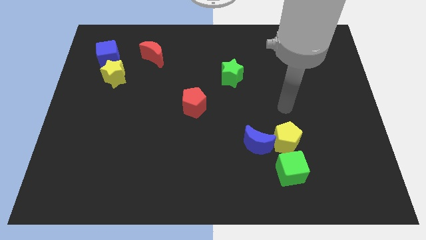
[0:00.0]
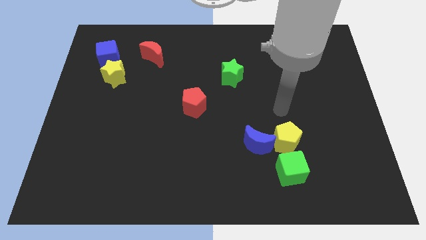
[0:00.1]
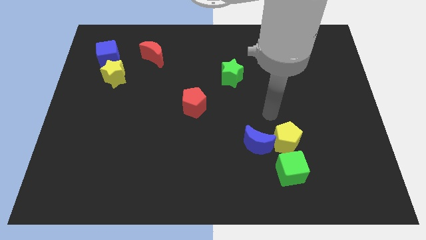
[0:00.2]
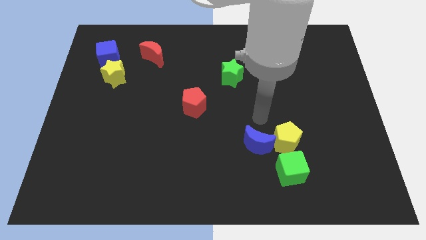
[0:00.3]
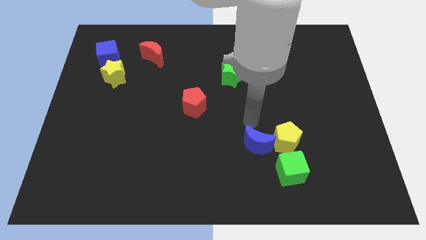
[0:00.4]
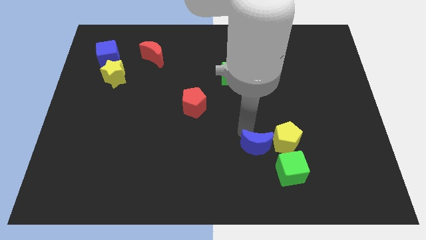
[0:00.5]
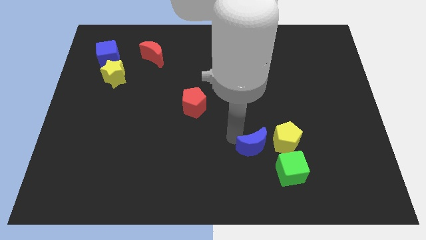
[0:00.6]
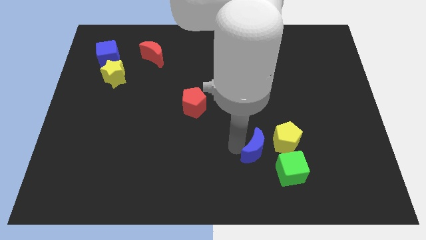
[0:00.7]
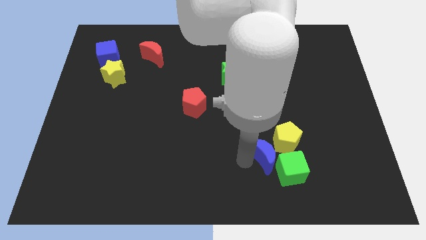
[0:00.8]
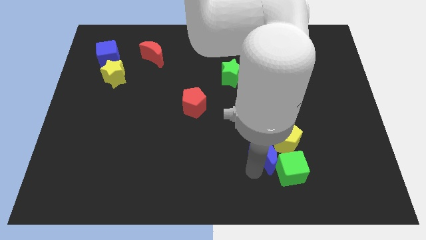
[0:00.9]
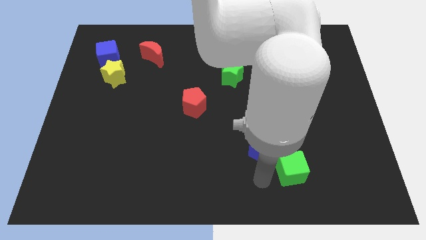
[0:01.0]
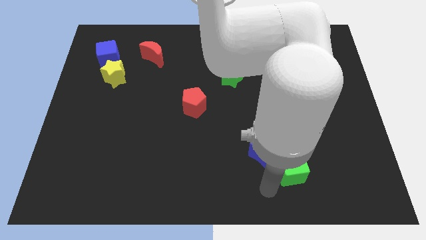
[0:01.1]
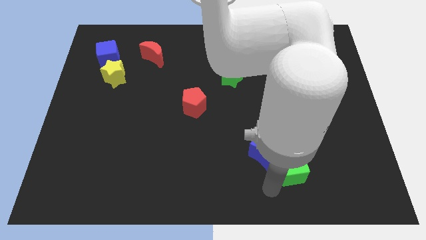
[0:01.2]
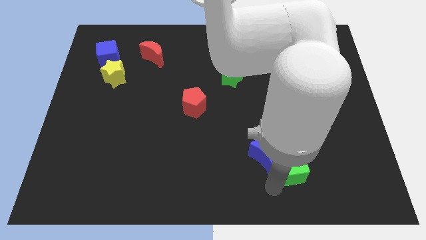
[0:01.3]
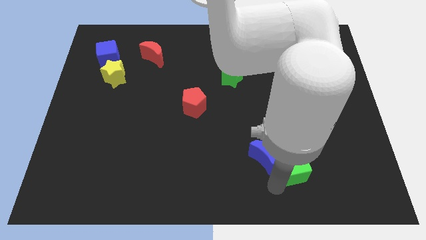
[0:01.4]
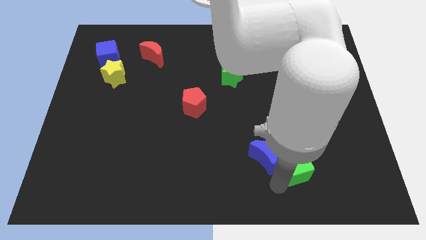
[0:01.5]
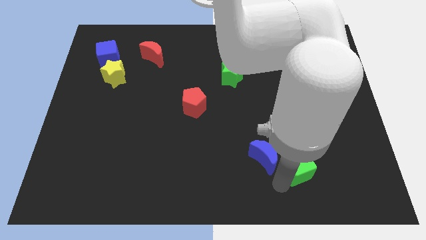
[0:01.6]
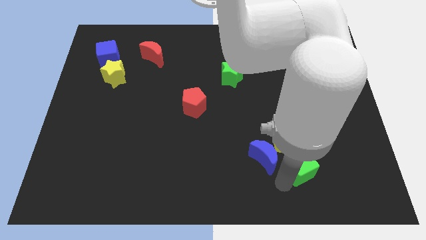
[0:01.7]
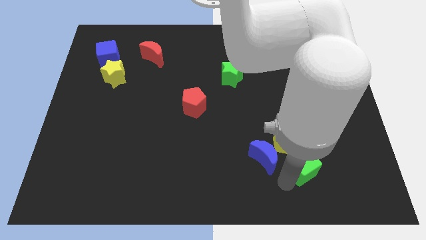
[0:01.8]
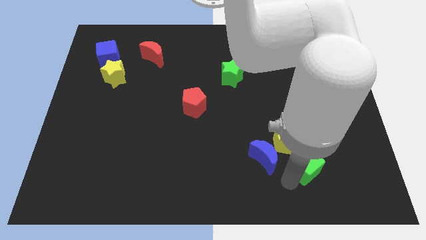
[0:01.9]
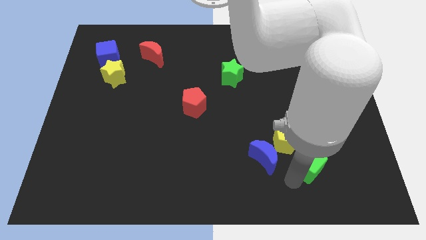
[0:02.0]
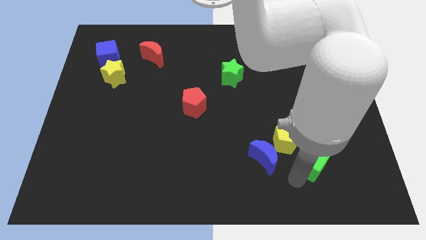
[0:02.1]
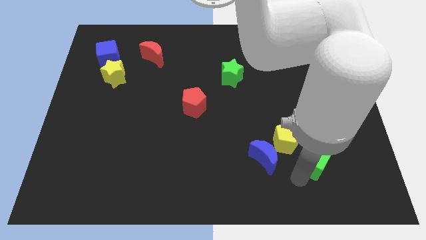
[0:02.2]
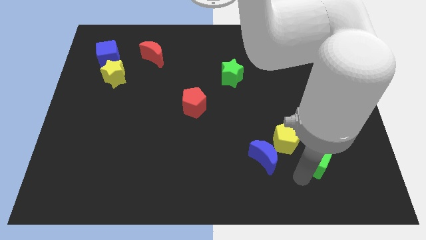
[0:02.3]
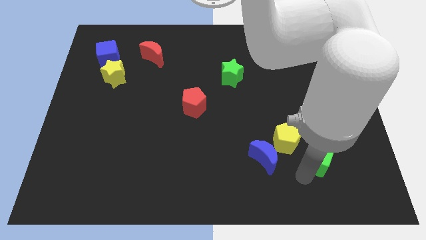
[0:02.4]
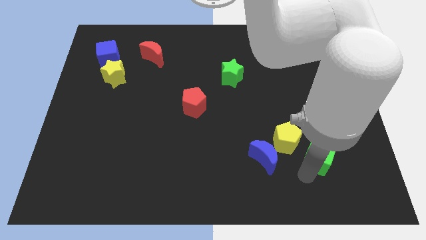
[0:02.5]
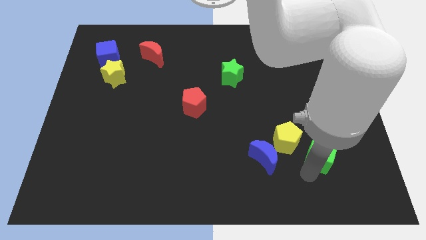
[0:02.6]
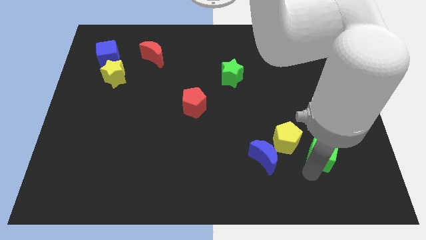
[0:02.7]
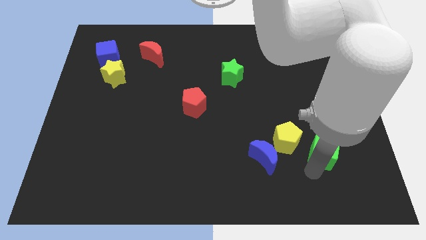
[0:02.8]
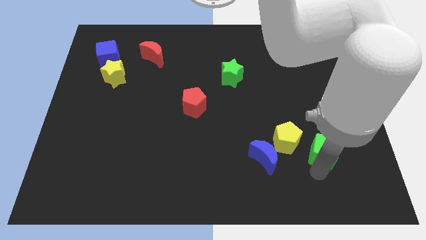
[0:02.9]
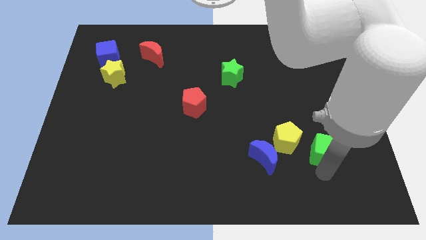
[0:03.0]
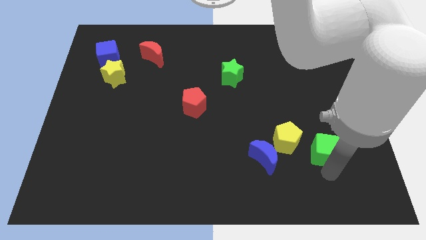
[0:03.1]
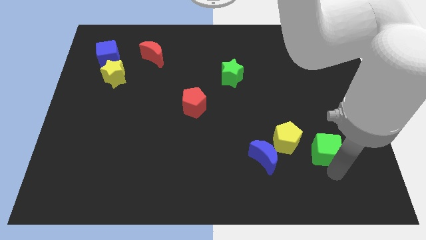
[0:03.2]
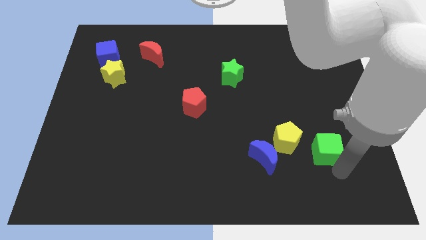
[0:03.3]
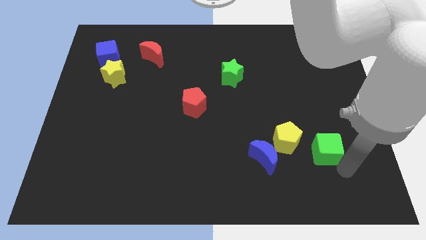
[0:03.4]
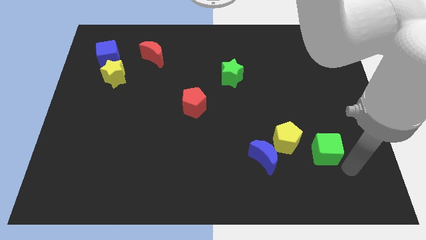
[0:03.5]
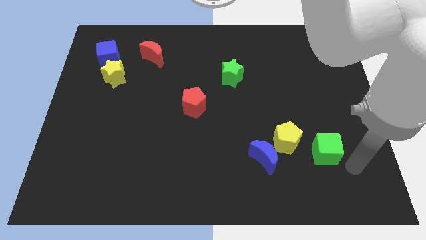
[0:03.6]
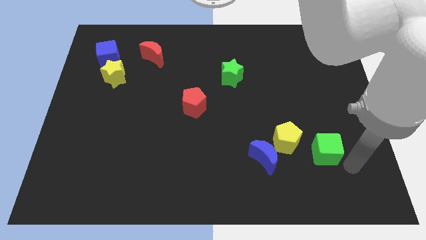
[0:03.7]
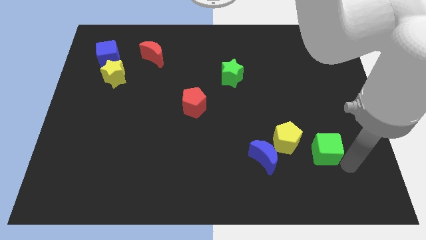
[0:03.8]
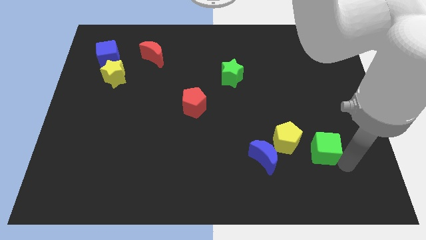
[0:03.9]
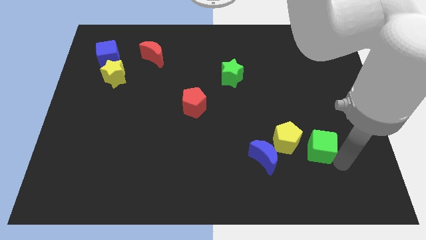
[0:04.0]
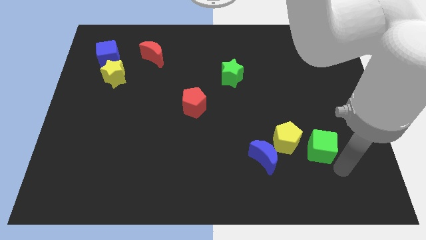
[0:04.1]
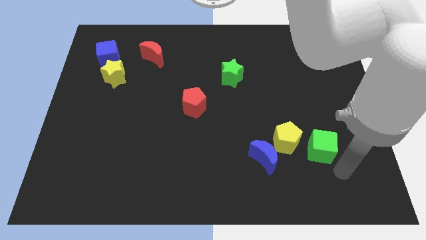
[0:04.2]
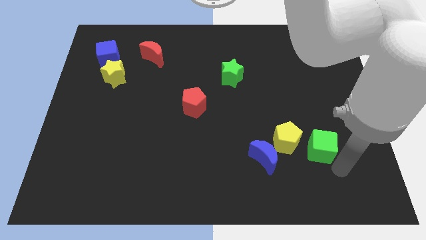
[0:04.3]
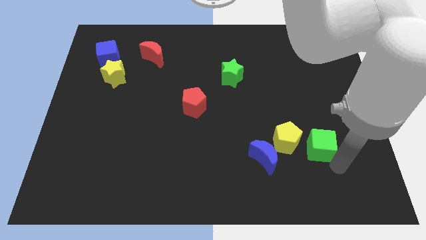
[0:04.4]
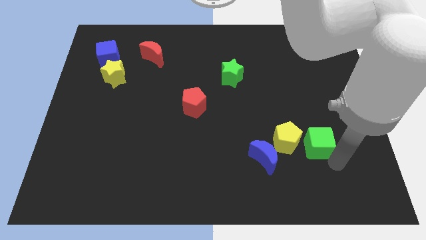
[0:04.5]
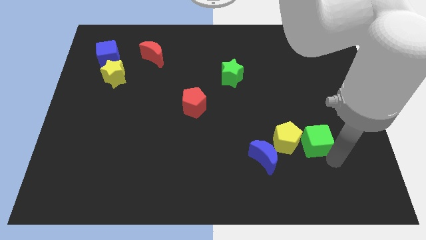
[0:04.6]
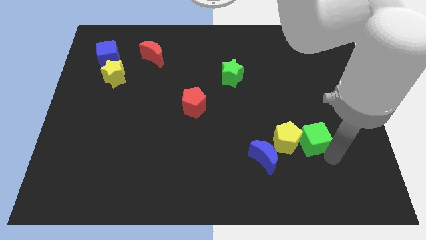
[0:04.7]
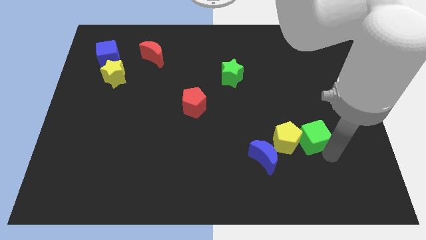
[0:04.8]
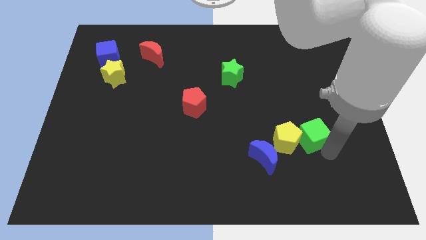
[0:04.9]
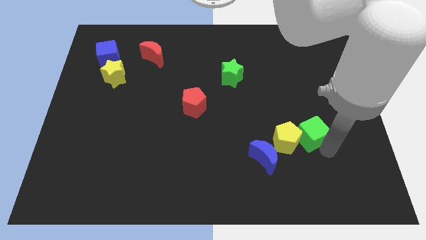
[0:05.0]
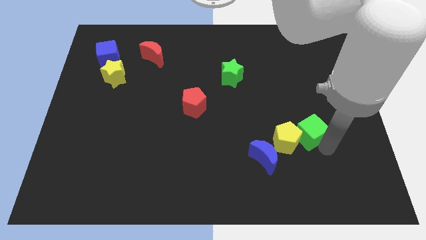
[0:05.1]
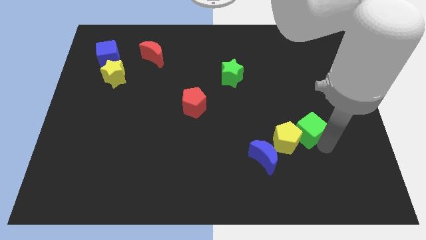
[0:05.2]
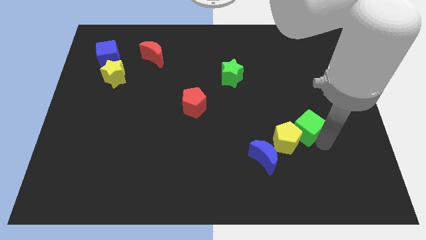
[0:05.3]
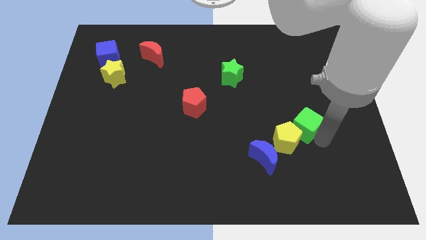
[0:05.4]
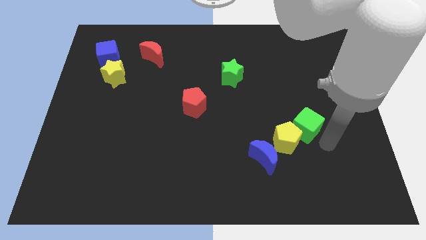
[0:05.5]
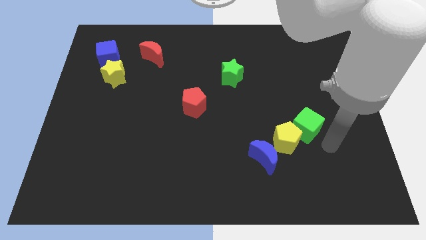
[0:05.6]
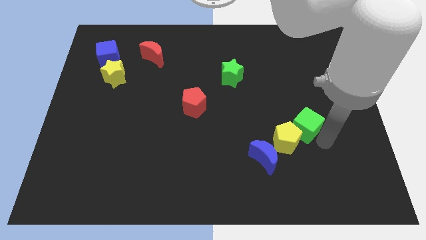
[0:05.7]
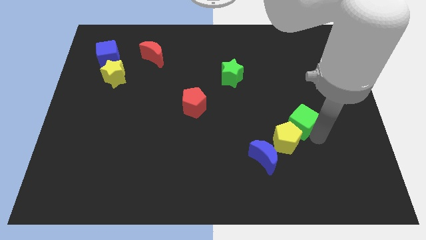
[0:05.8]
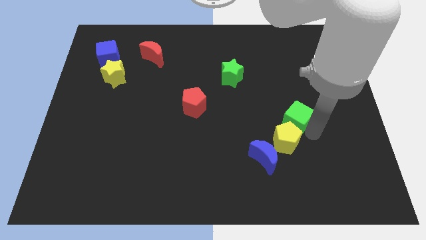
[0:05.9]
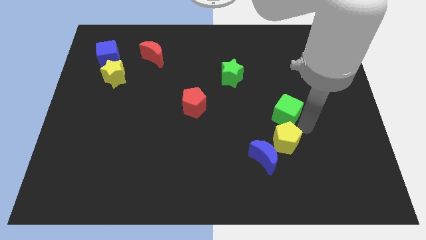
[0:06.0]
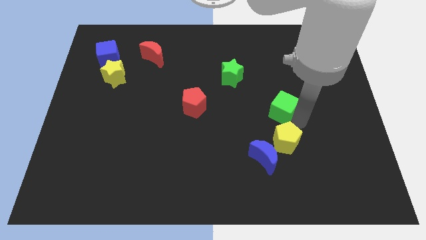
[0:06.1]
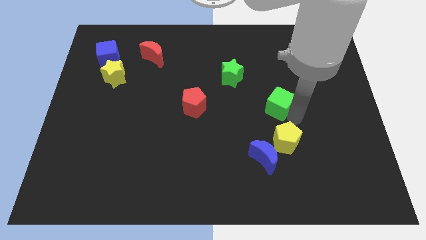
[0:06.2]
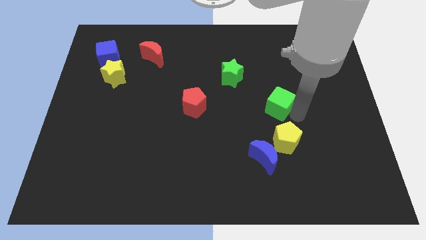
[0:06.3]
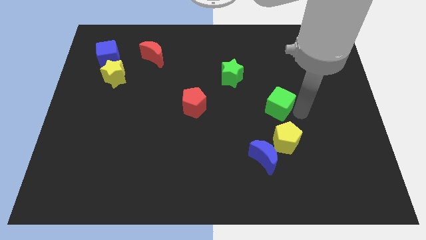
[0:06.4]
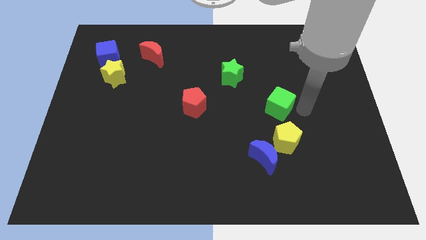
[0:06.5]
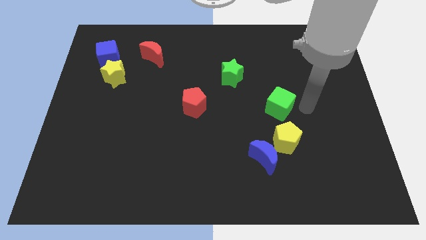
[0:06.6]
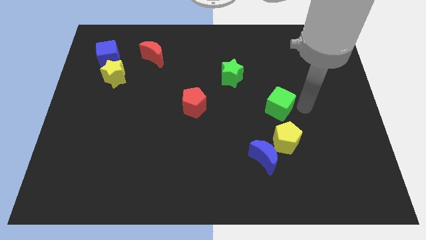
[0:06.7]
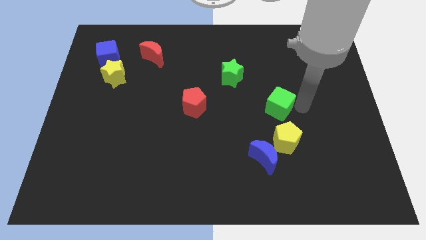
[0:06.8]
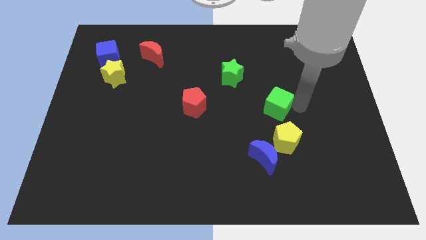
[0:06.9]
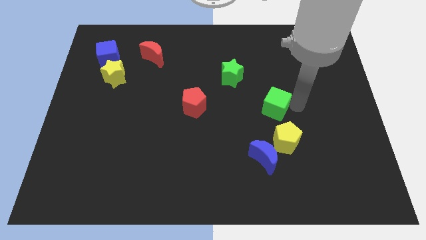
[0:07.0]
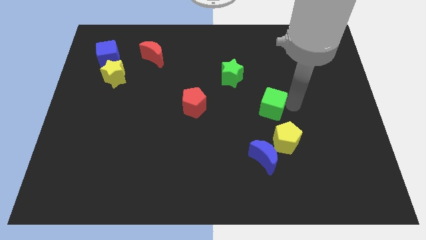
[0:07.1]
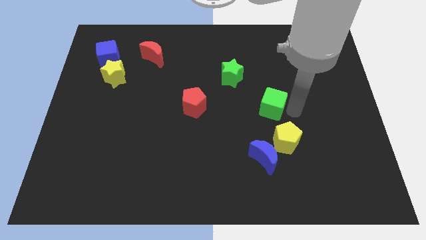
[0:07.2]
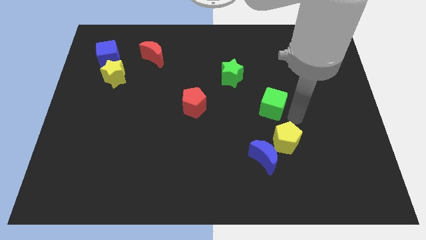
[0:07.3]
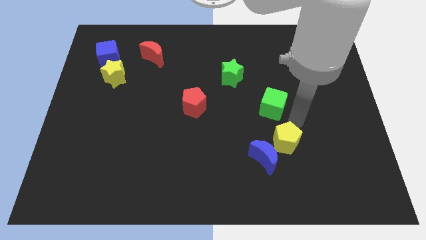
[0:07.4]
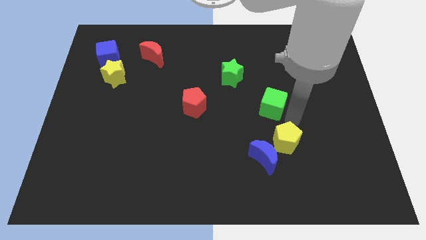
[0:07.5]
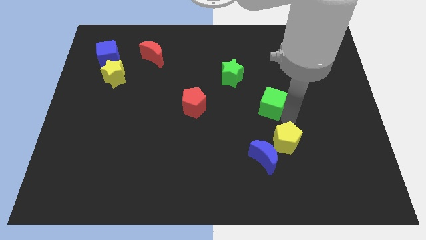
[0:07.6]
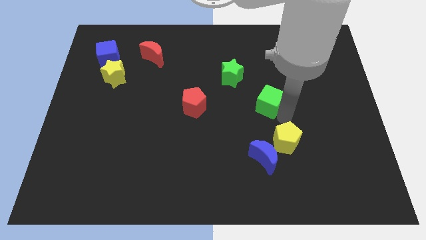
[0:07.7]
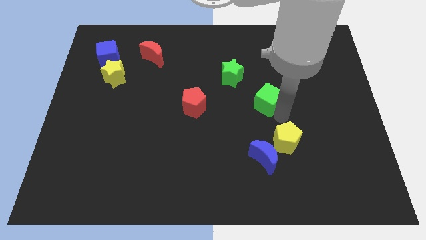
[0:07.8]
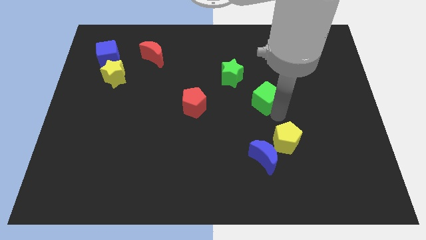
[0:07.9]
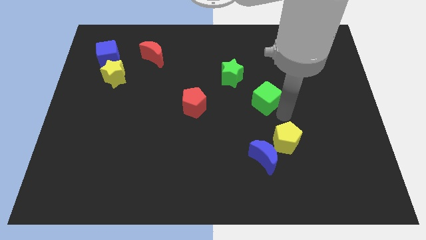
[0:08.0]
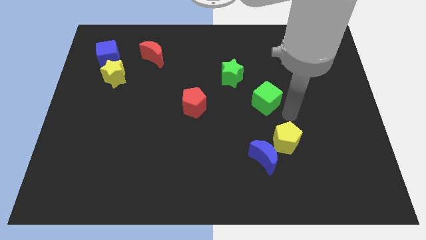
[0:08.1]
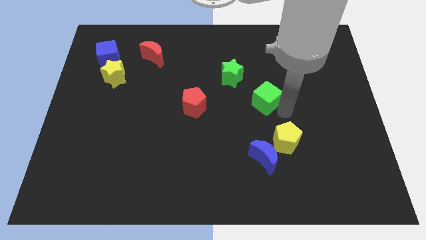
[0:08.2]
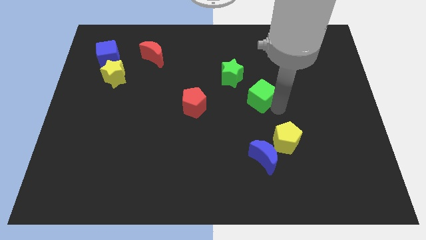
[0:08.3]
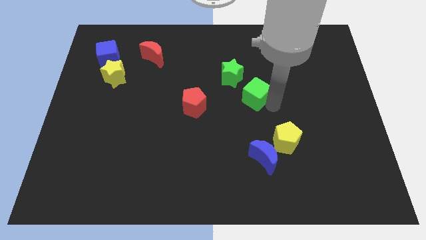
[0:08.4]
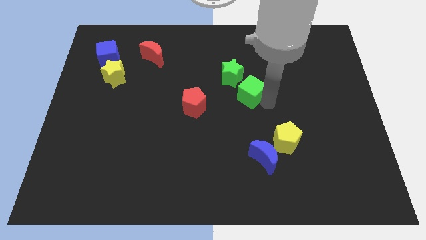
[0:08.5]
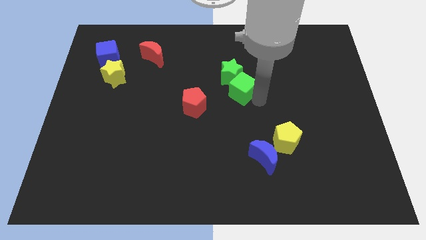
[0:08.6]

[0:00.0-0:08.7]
put the green cube next to the green star
